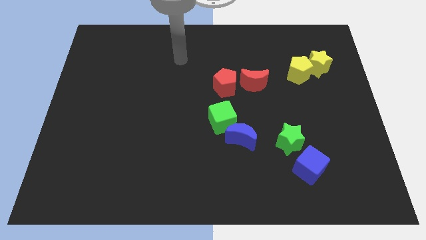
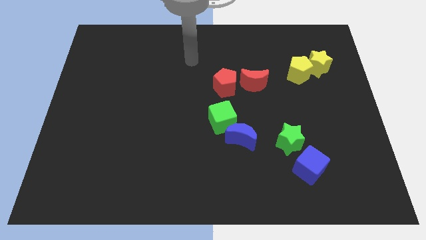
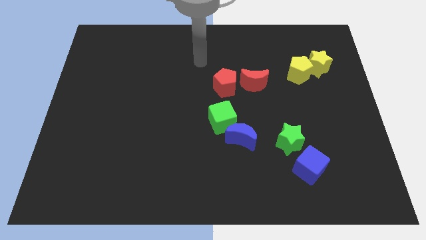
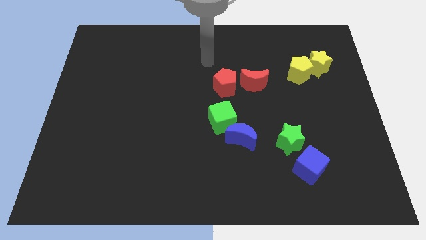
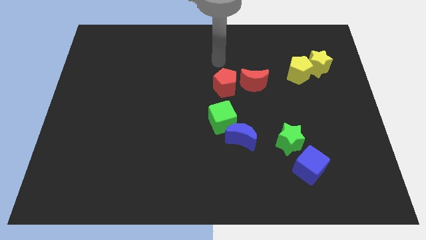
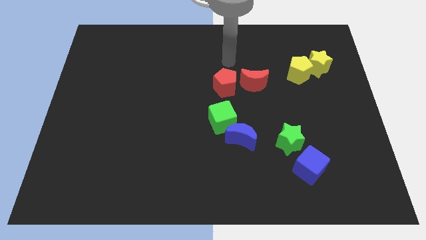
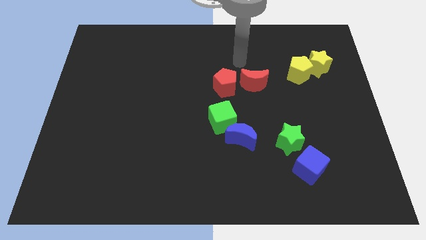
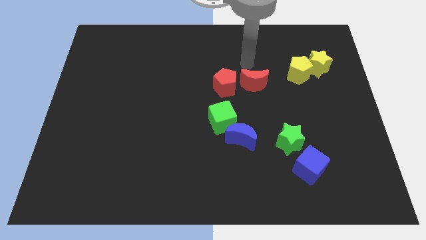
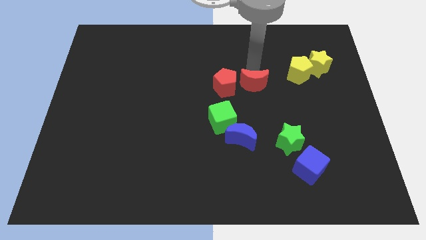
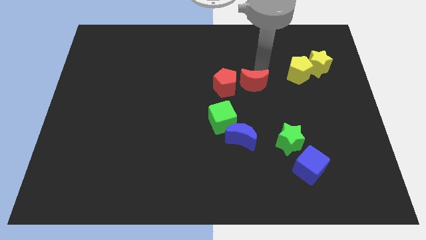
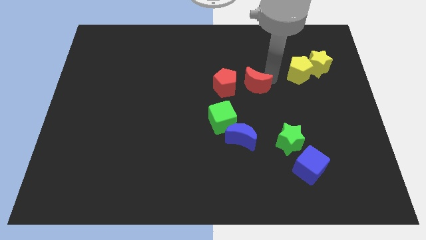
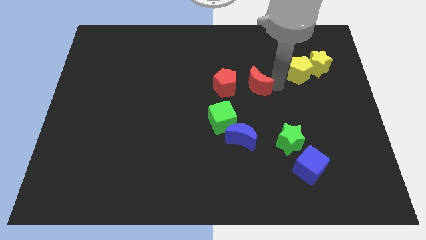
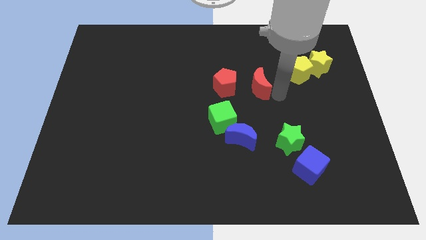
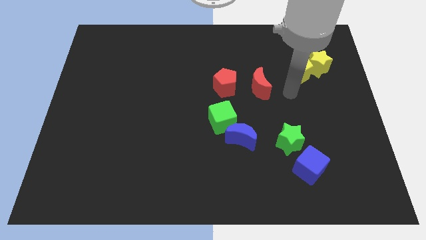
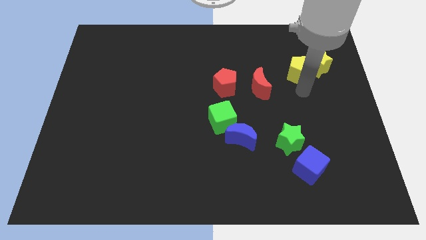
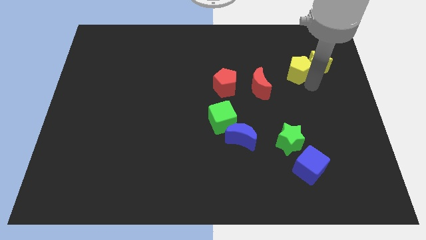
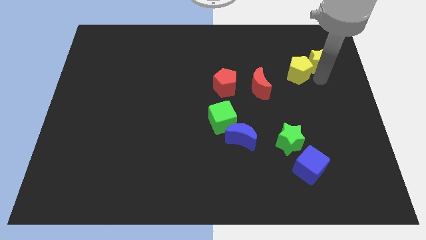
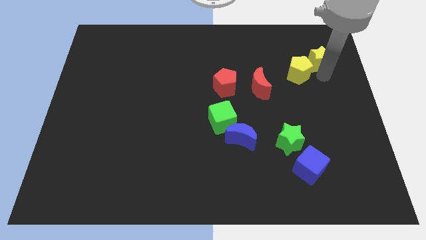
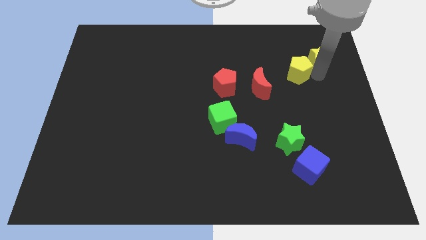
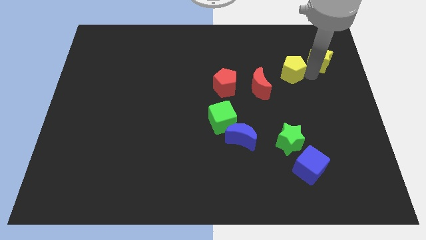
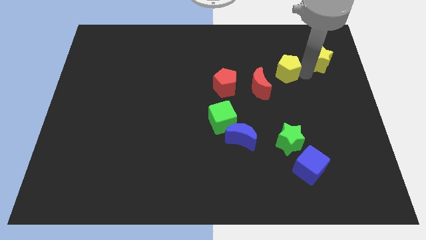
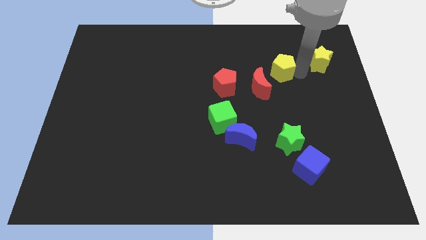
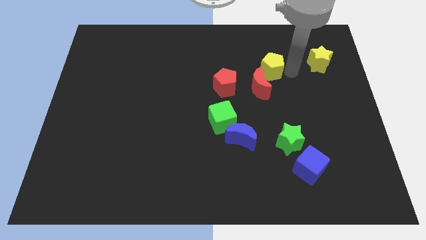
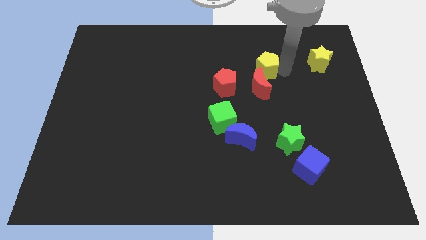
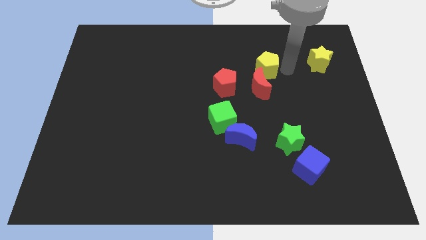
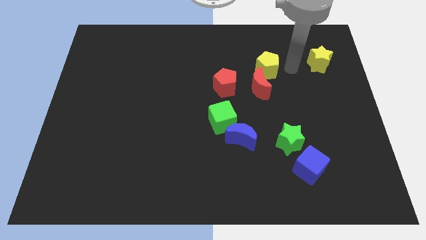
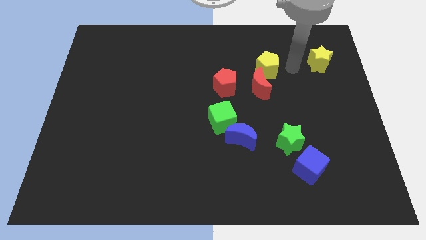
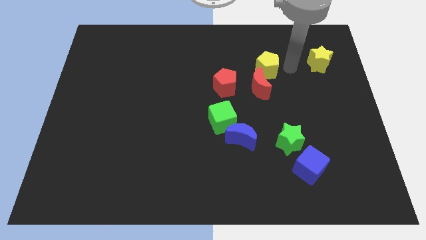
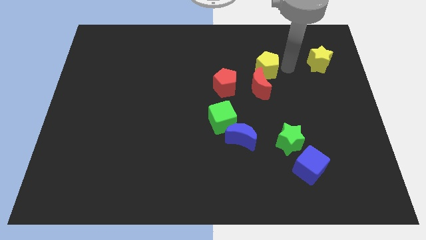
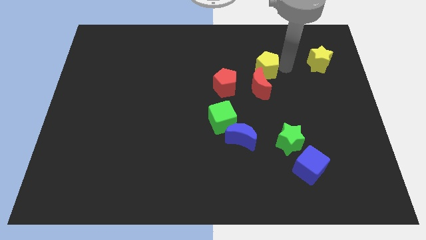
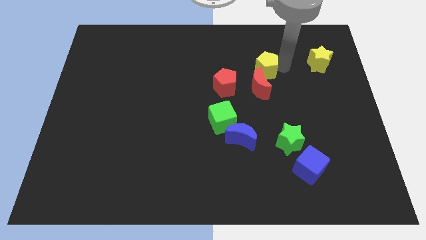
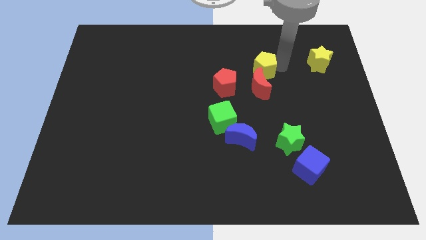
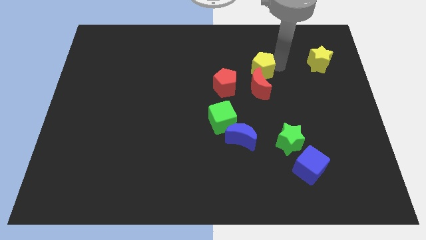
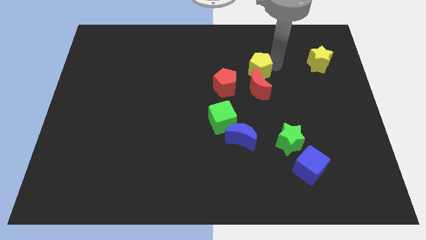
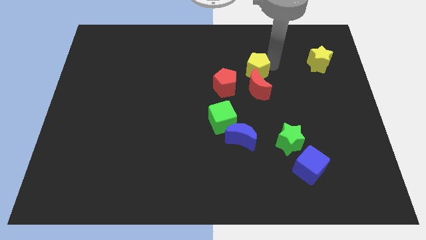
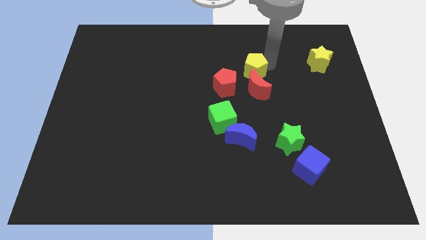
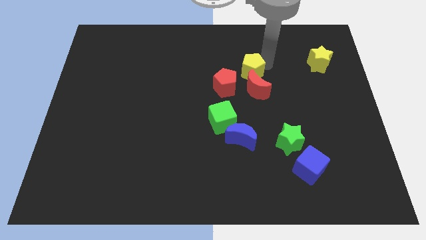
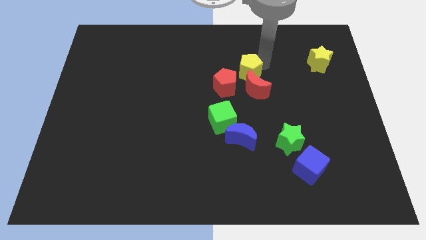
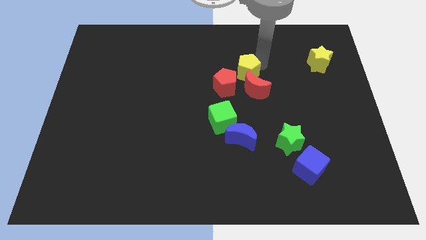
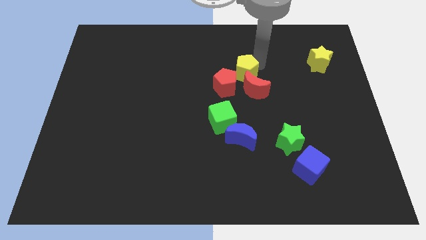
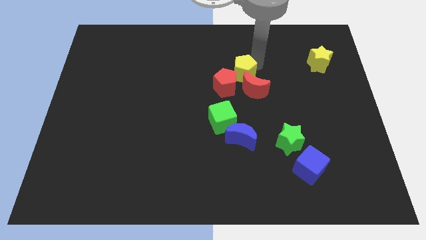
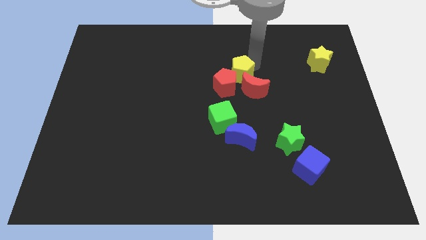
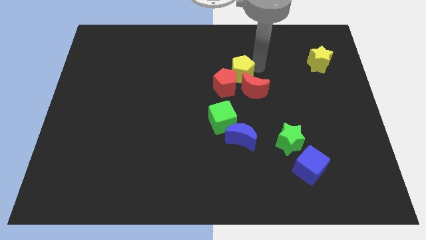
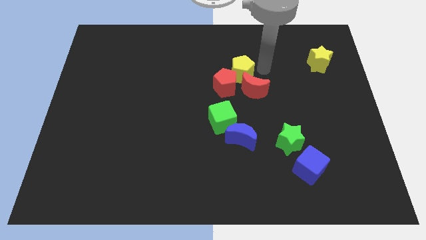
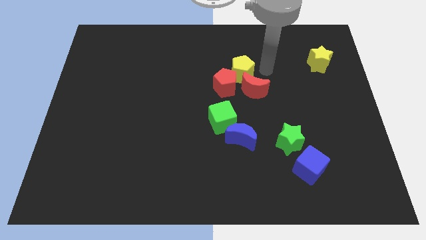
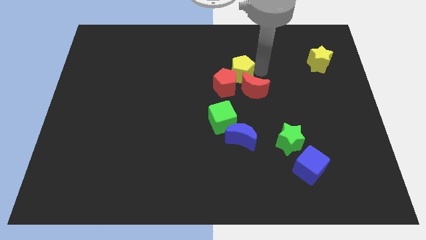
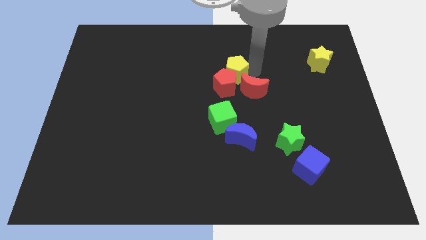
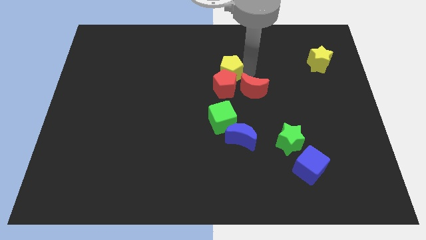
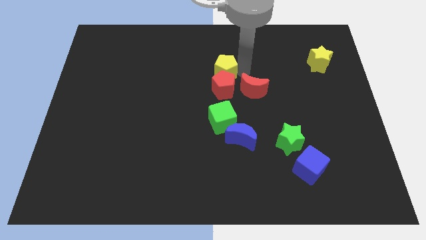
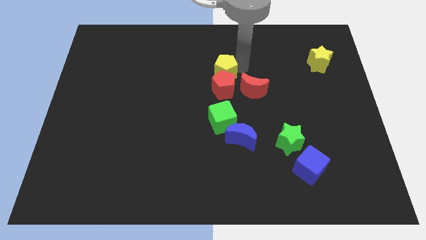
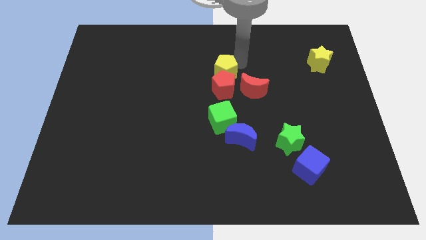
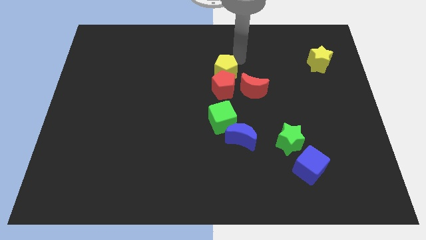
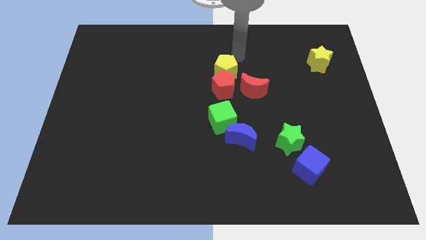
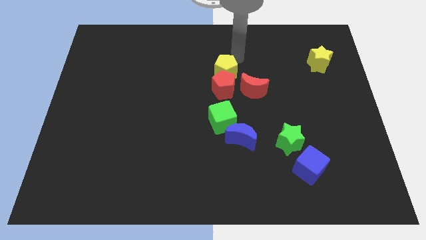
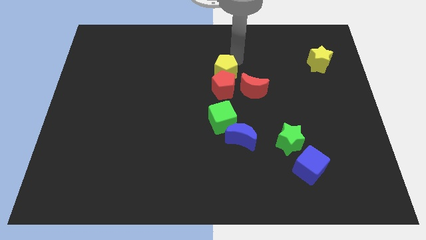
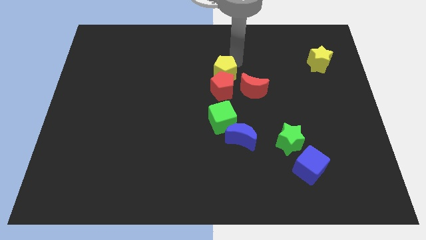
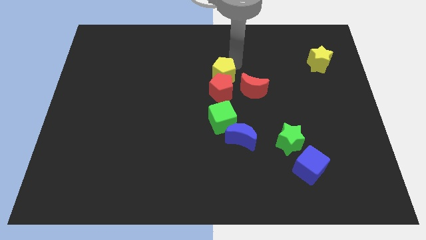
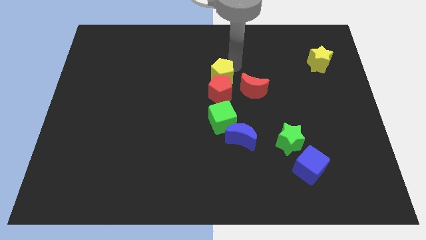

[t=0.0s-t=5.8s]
move the yellow pentagon to the left side of the red moon

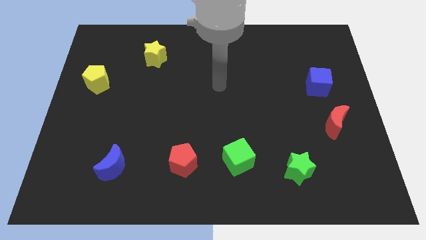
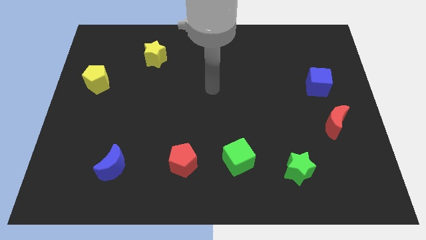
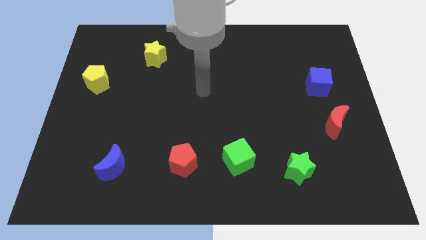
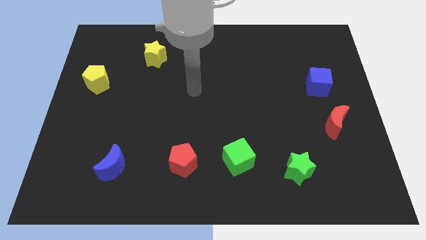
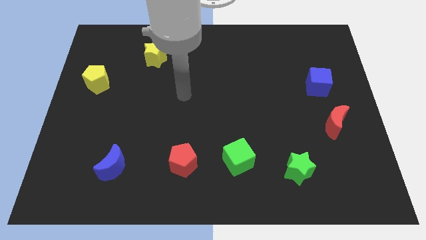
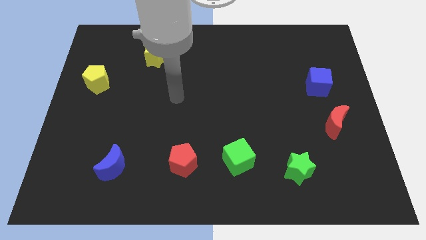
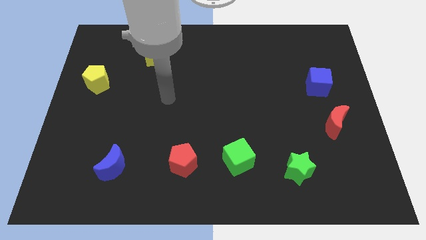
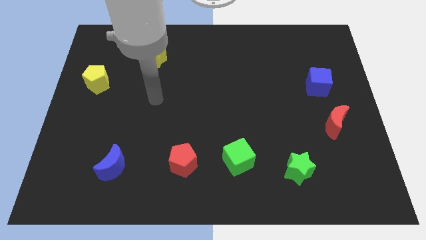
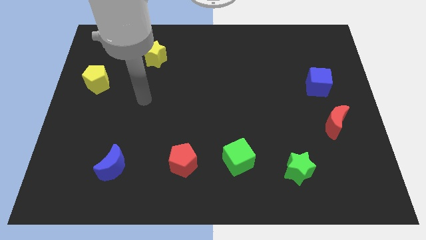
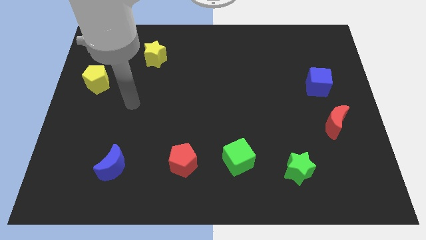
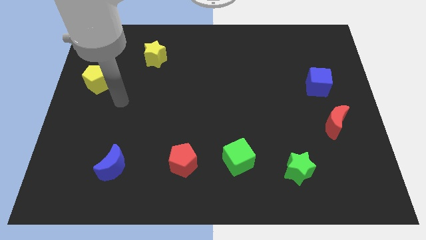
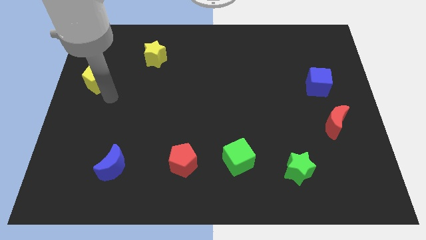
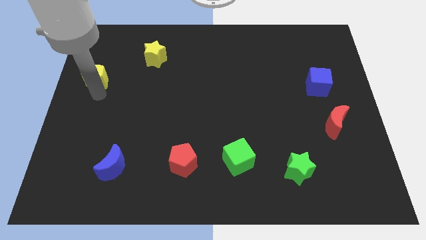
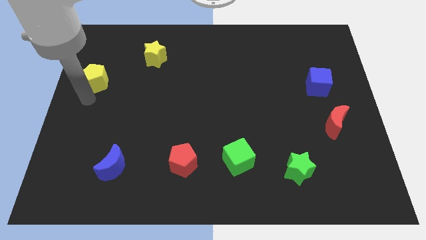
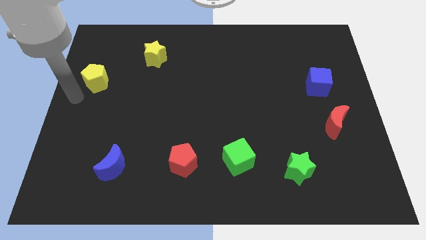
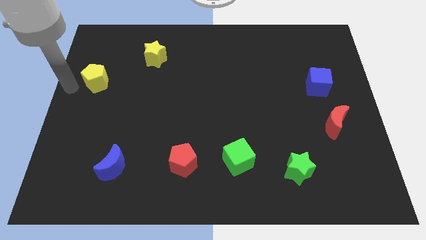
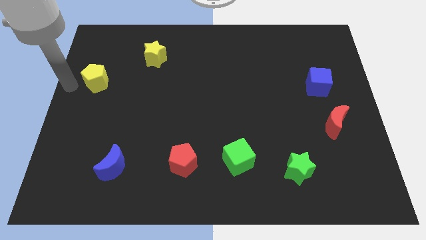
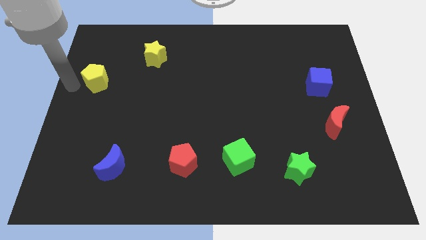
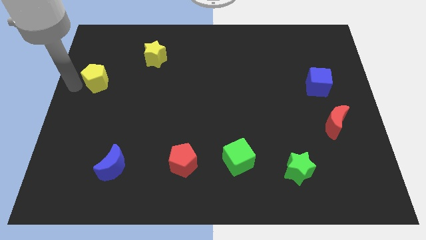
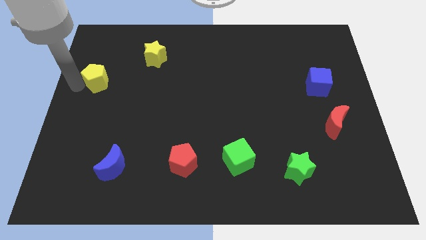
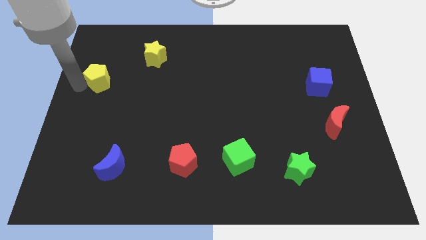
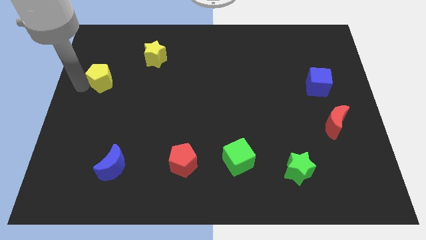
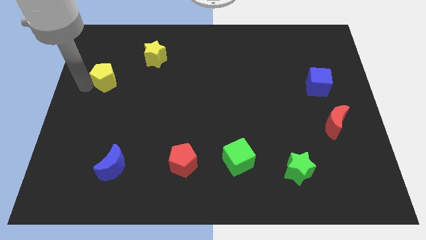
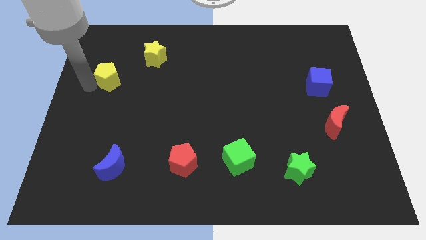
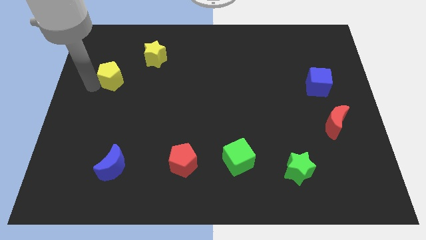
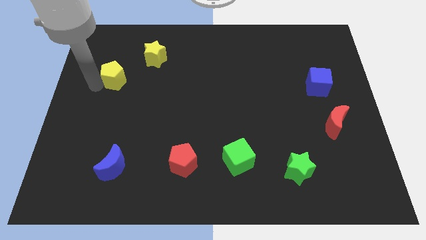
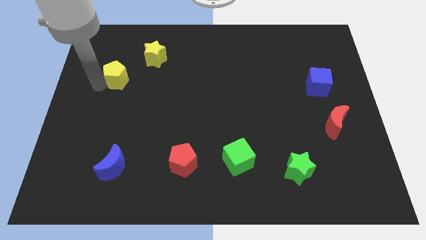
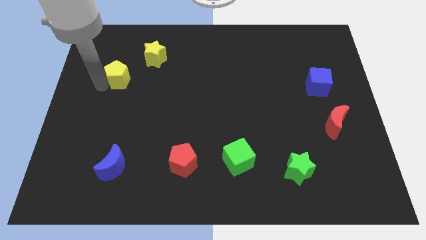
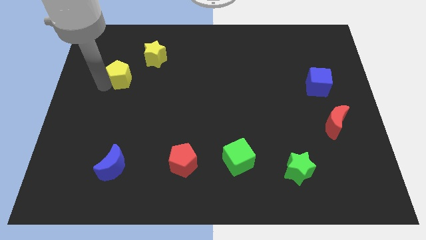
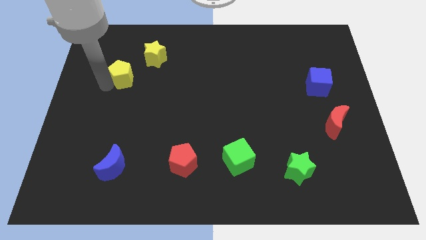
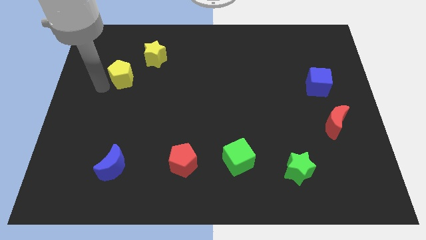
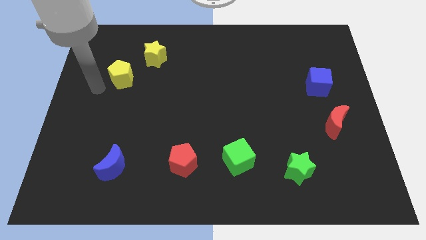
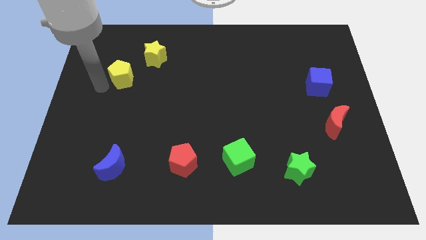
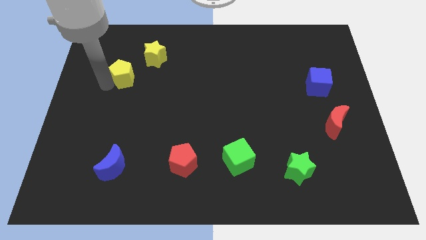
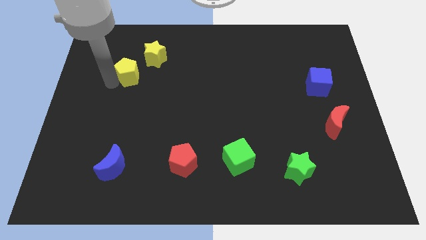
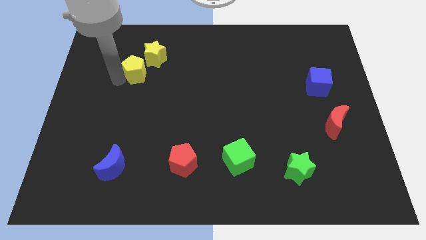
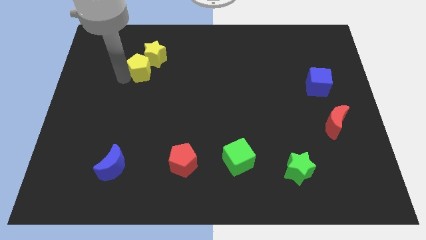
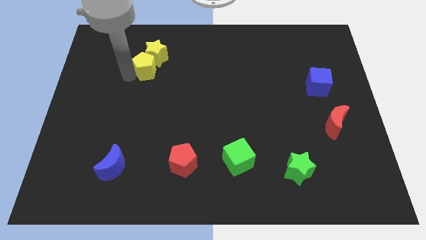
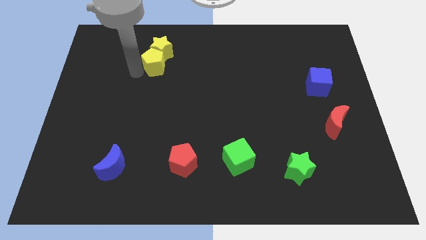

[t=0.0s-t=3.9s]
push the yellow pentagon diagonally down and to the right of the yellow star
